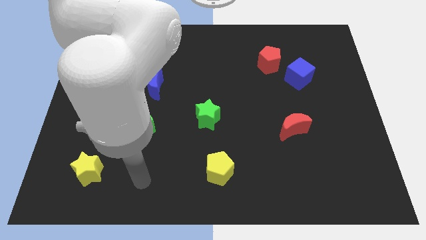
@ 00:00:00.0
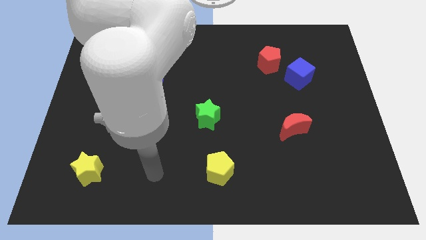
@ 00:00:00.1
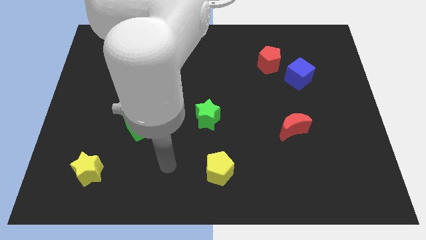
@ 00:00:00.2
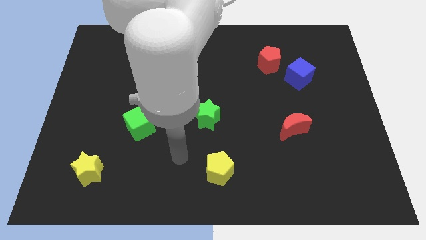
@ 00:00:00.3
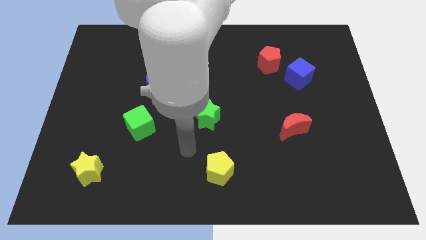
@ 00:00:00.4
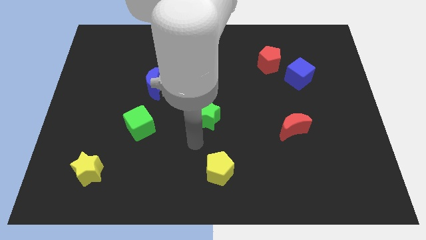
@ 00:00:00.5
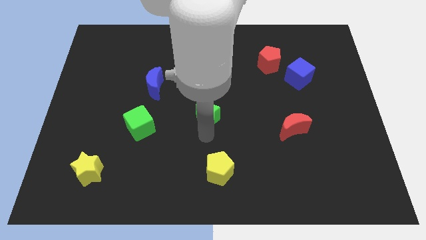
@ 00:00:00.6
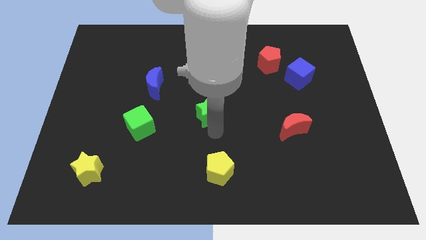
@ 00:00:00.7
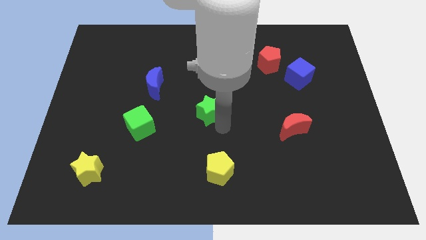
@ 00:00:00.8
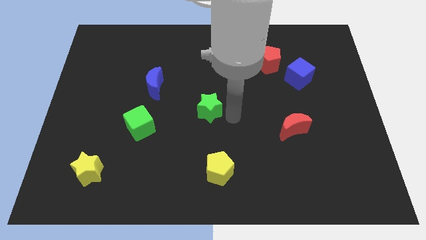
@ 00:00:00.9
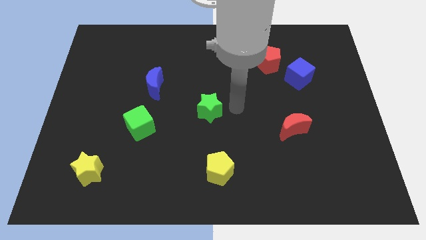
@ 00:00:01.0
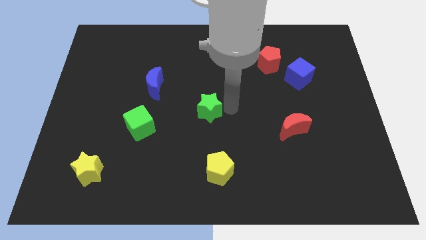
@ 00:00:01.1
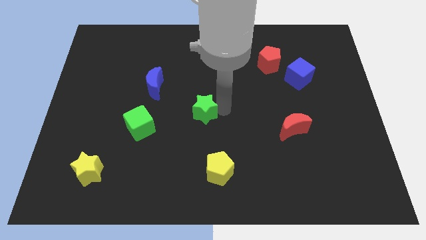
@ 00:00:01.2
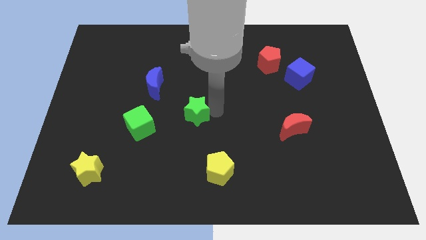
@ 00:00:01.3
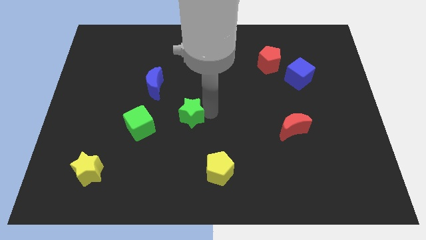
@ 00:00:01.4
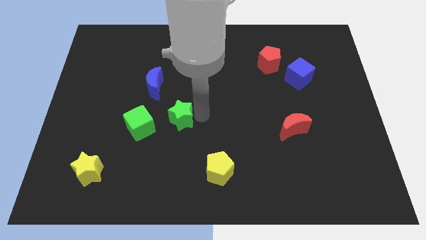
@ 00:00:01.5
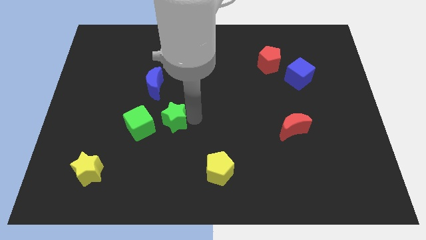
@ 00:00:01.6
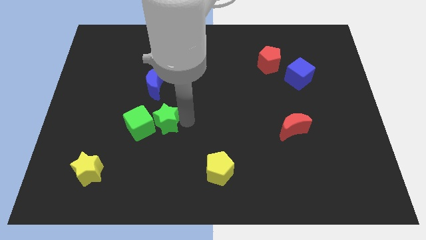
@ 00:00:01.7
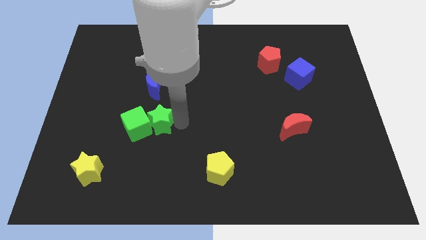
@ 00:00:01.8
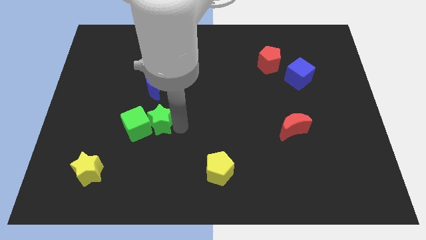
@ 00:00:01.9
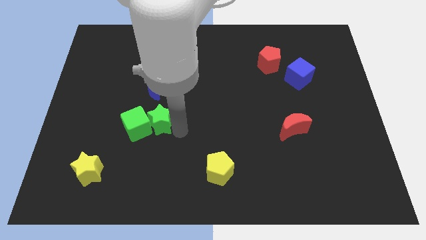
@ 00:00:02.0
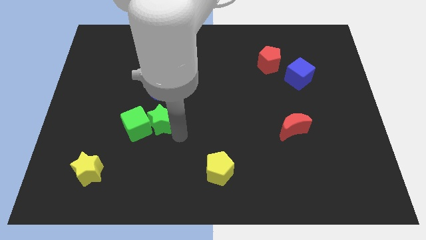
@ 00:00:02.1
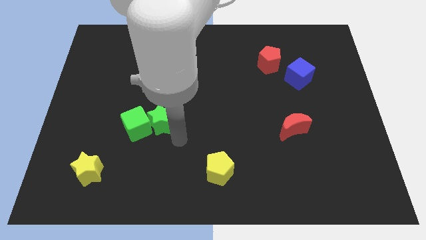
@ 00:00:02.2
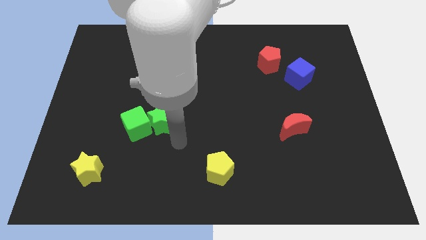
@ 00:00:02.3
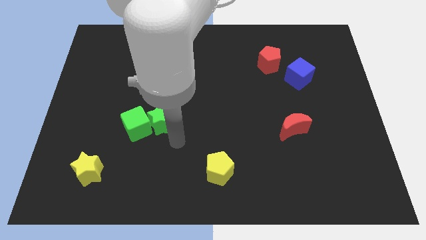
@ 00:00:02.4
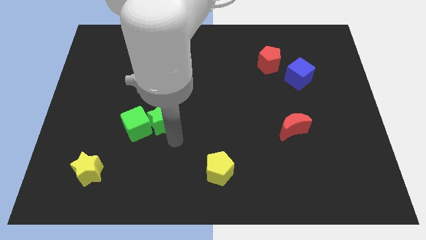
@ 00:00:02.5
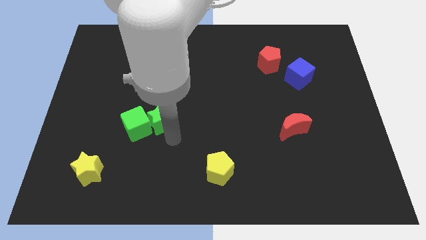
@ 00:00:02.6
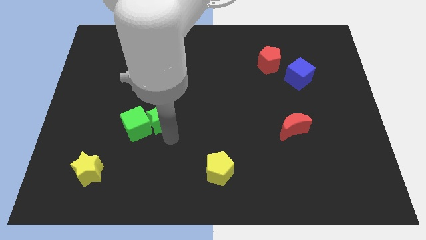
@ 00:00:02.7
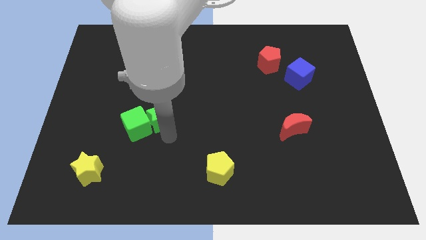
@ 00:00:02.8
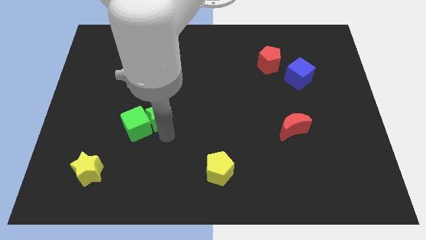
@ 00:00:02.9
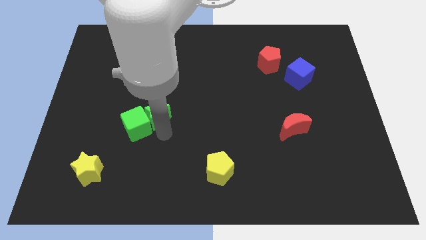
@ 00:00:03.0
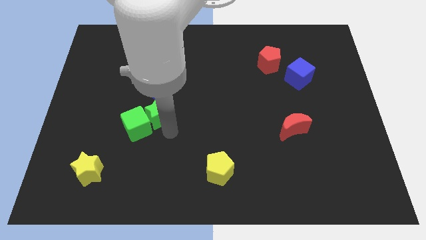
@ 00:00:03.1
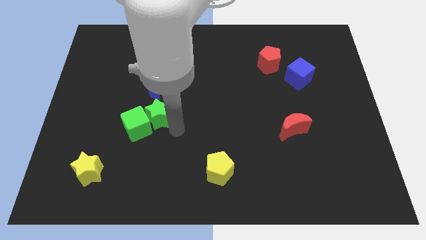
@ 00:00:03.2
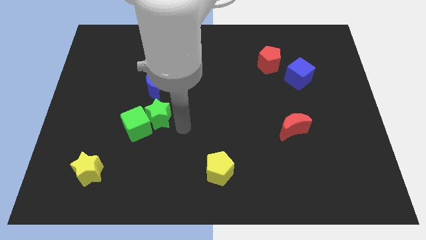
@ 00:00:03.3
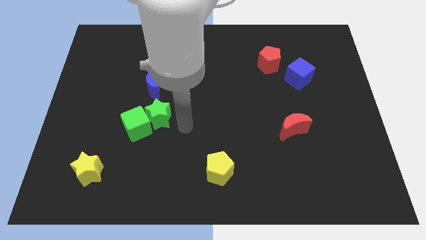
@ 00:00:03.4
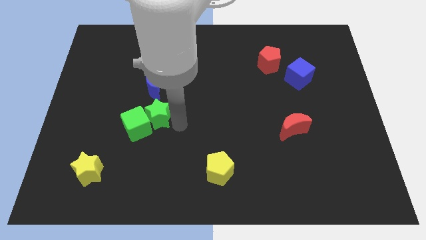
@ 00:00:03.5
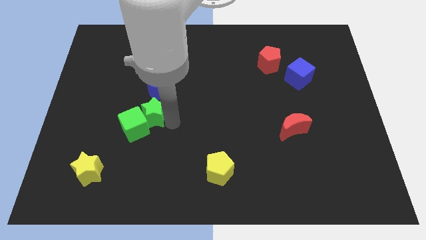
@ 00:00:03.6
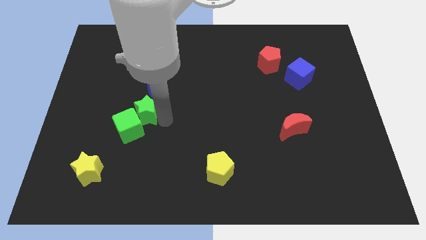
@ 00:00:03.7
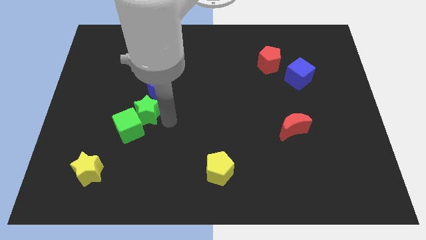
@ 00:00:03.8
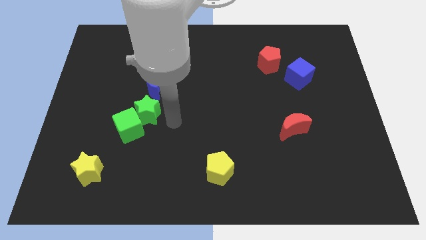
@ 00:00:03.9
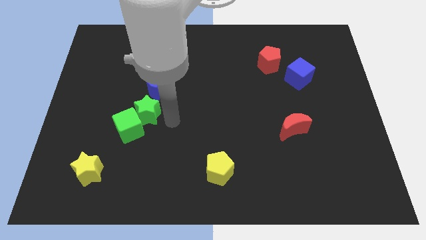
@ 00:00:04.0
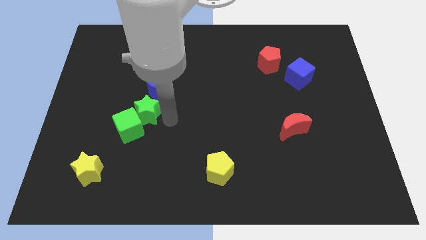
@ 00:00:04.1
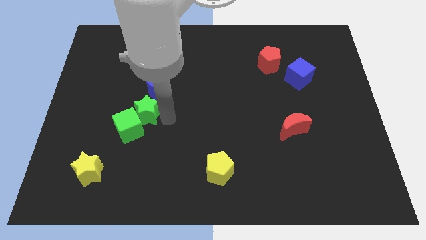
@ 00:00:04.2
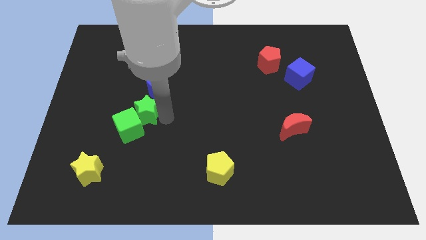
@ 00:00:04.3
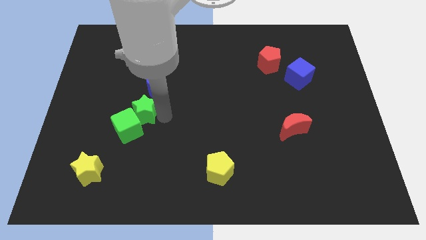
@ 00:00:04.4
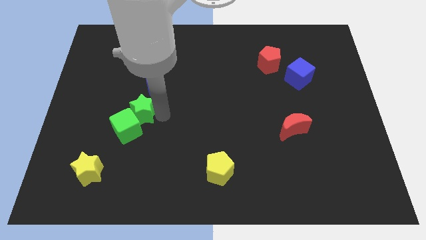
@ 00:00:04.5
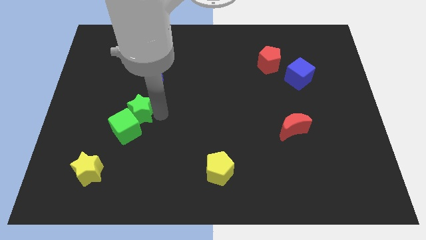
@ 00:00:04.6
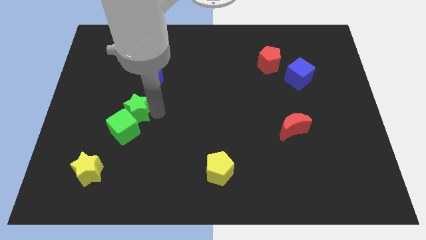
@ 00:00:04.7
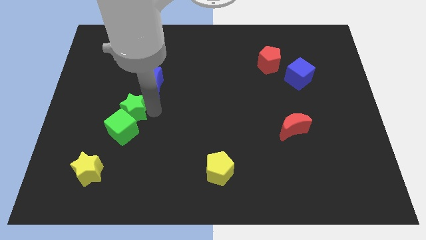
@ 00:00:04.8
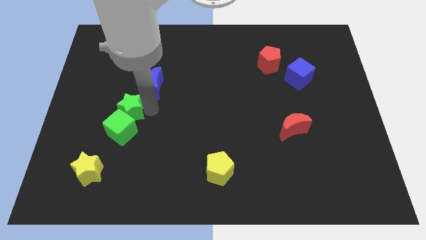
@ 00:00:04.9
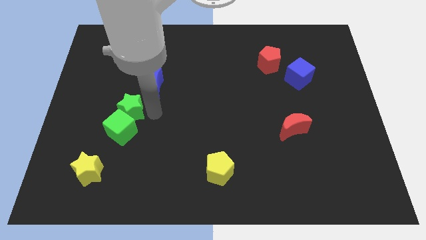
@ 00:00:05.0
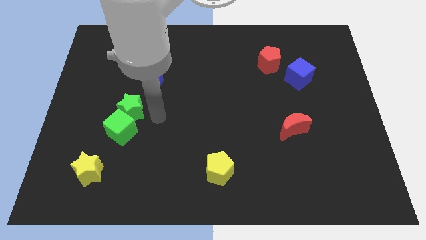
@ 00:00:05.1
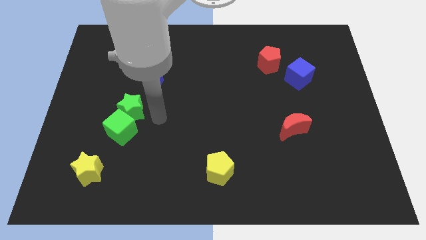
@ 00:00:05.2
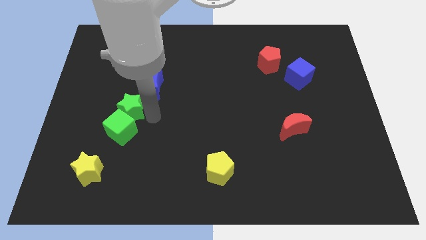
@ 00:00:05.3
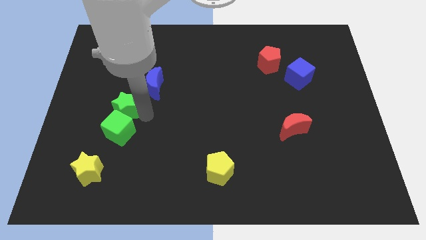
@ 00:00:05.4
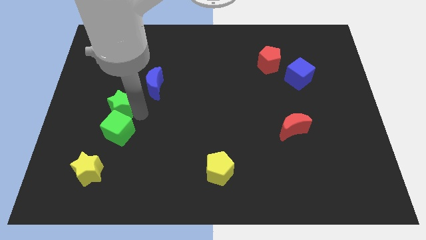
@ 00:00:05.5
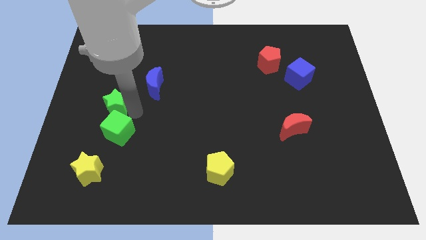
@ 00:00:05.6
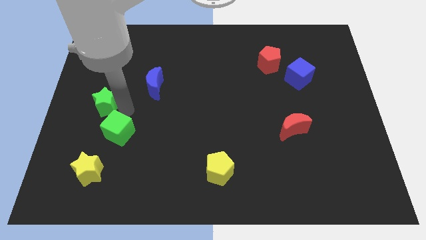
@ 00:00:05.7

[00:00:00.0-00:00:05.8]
put the green star to the left side
